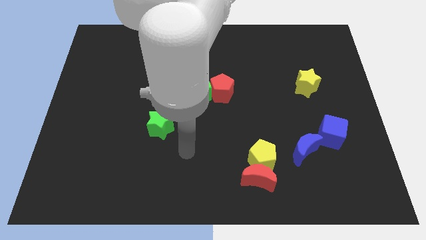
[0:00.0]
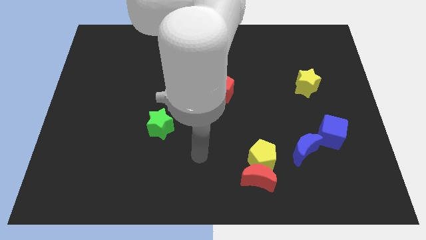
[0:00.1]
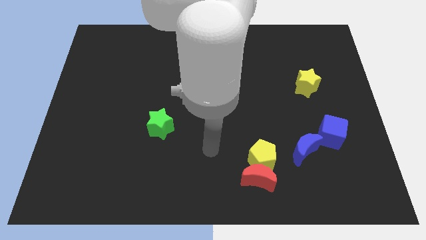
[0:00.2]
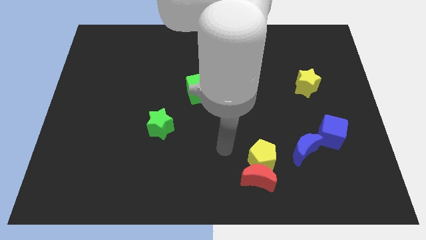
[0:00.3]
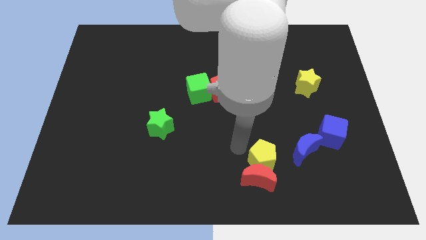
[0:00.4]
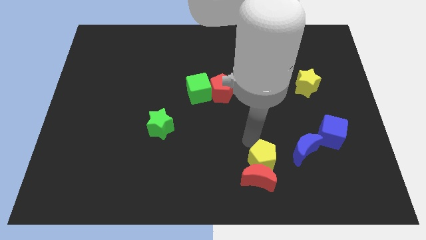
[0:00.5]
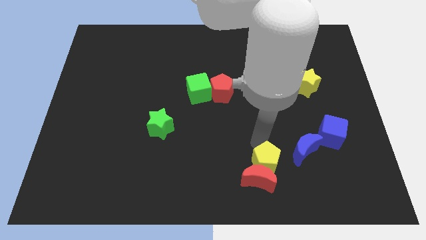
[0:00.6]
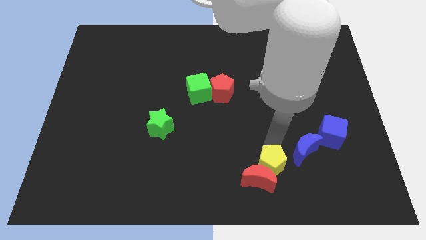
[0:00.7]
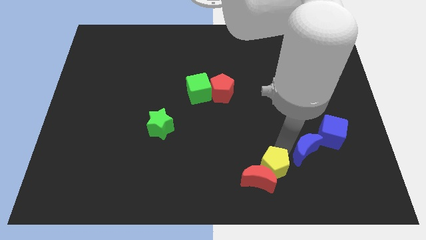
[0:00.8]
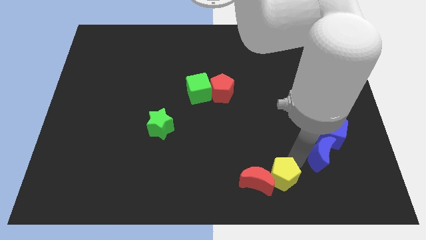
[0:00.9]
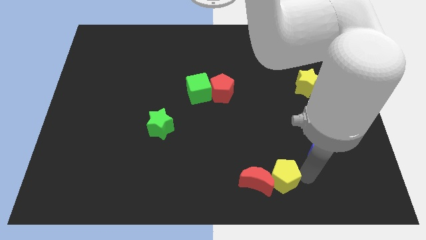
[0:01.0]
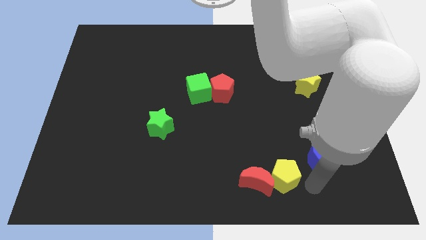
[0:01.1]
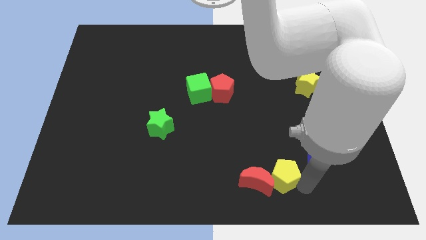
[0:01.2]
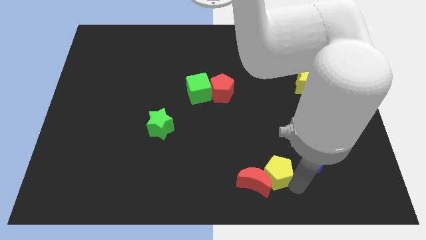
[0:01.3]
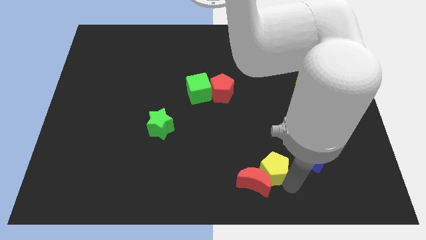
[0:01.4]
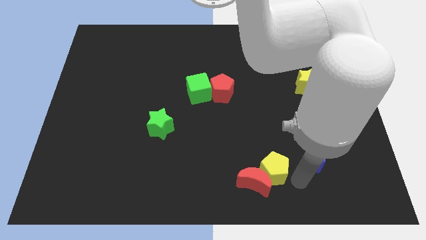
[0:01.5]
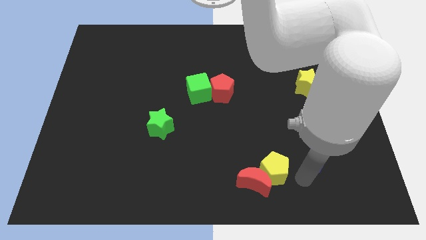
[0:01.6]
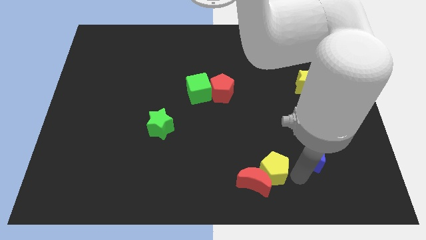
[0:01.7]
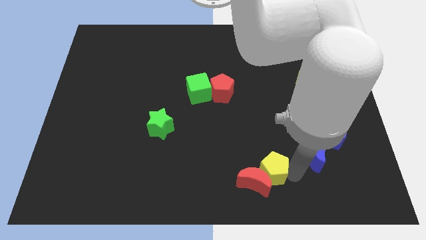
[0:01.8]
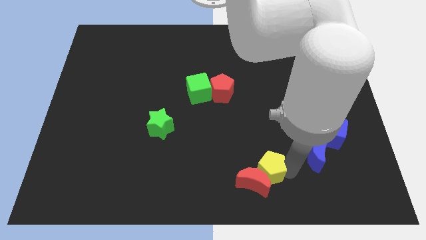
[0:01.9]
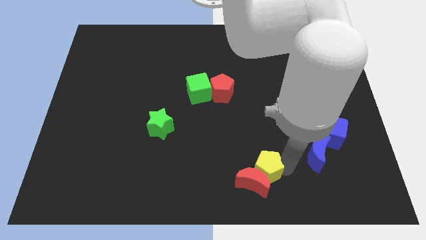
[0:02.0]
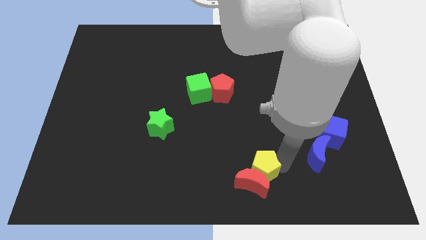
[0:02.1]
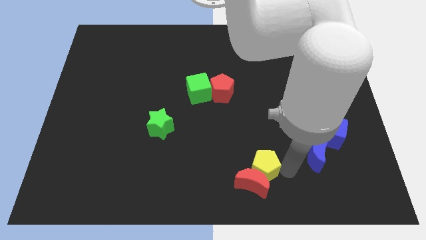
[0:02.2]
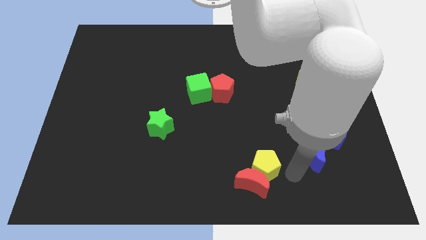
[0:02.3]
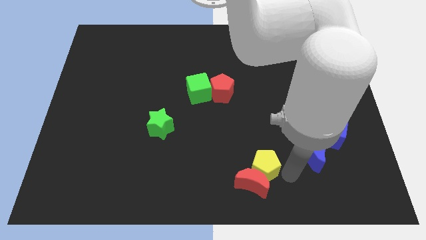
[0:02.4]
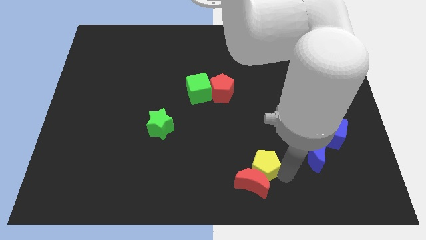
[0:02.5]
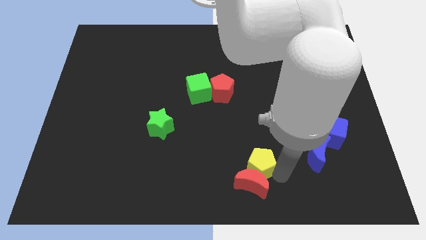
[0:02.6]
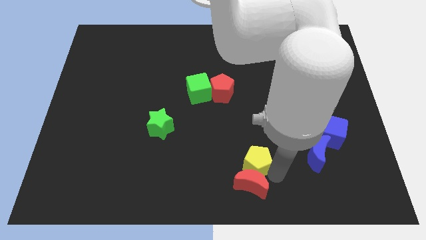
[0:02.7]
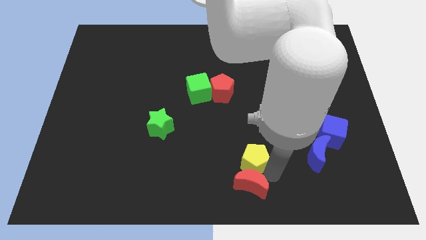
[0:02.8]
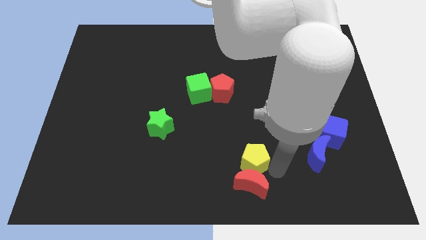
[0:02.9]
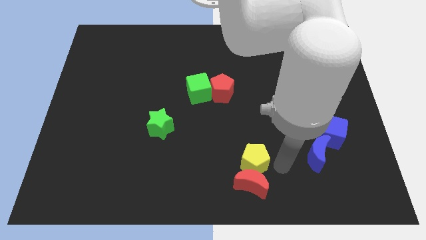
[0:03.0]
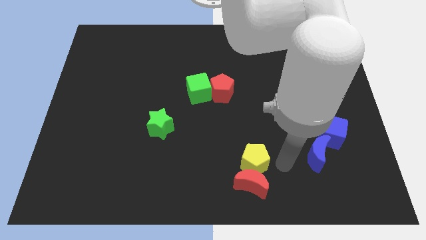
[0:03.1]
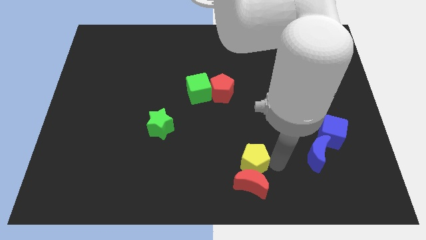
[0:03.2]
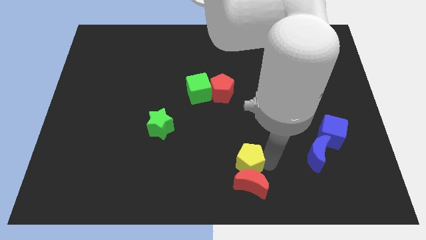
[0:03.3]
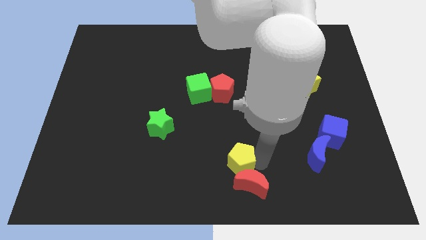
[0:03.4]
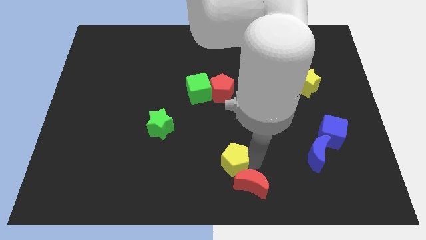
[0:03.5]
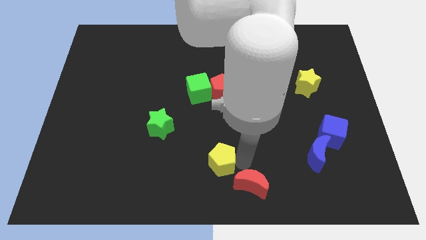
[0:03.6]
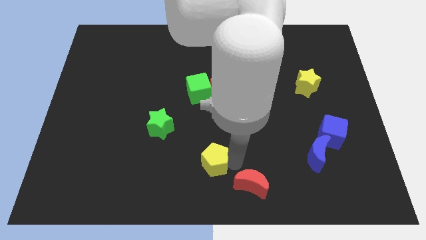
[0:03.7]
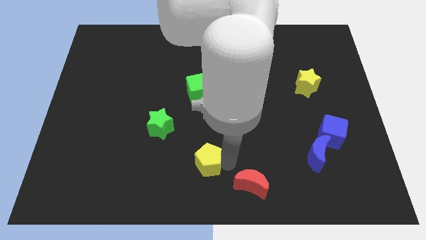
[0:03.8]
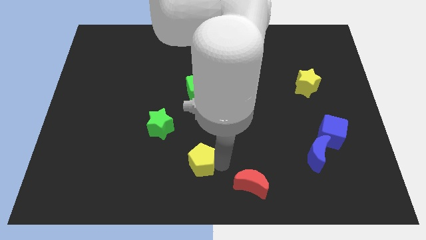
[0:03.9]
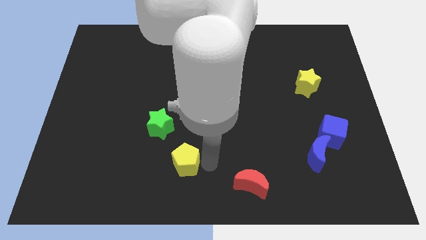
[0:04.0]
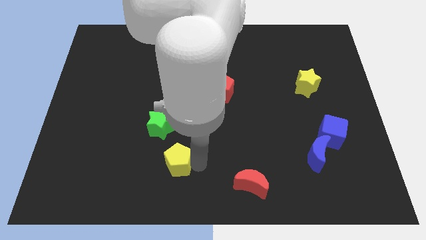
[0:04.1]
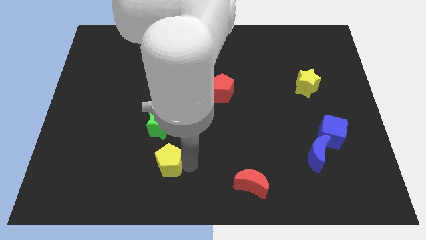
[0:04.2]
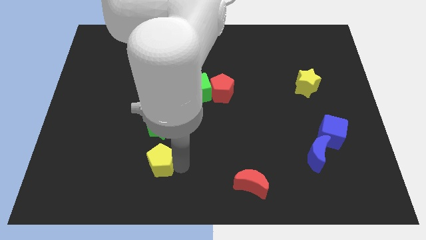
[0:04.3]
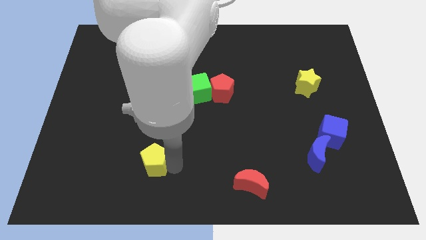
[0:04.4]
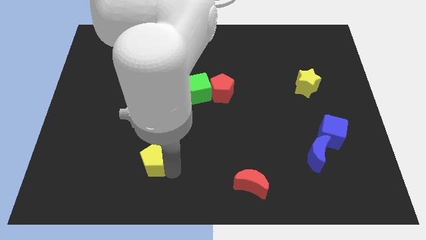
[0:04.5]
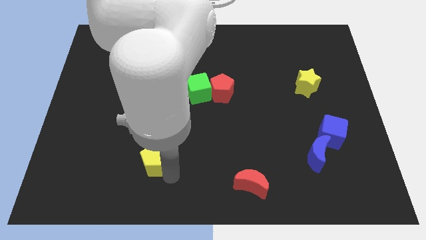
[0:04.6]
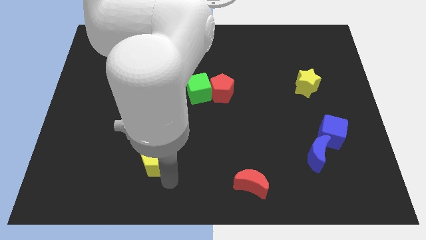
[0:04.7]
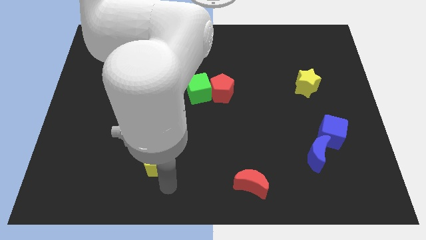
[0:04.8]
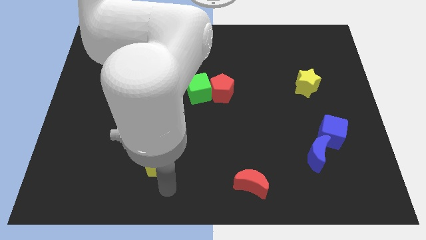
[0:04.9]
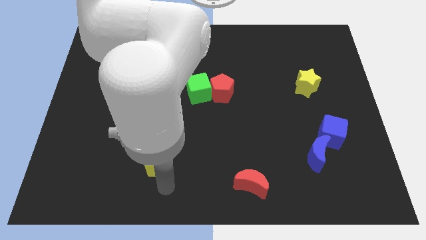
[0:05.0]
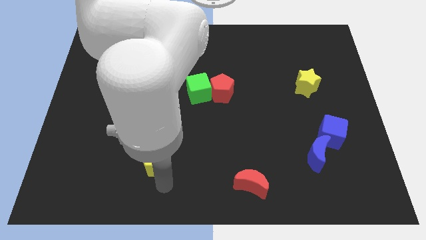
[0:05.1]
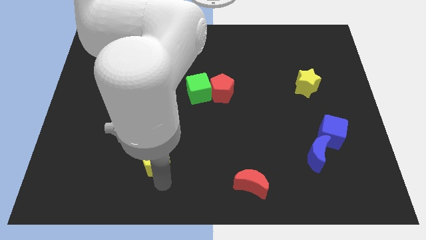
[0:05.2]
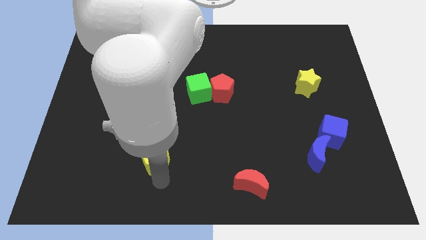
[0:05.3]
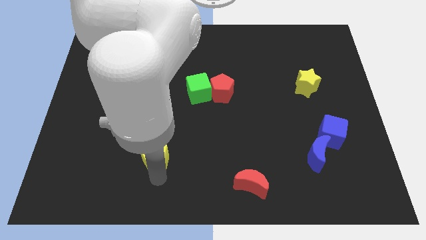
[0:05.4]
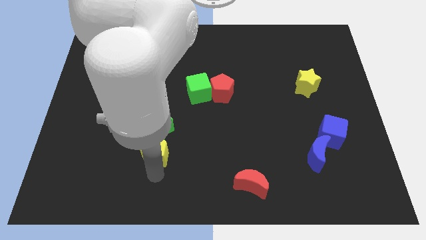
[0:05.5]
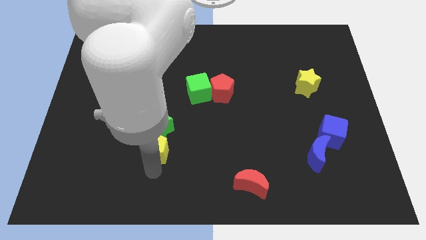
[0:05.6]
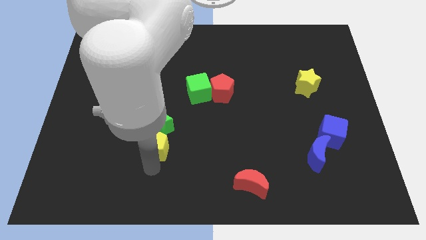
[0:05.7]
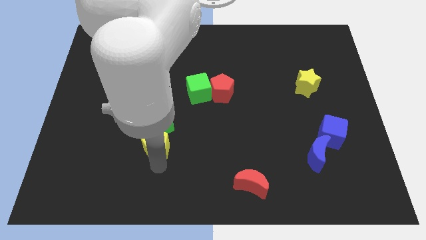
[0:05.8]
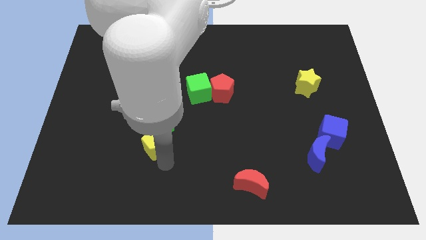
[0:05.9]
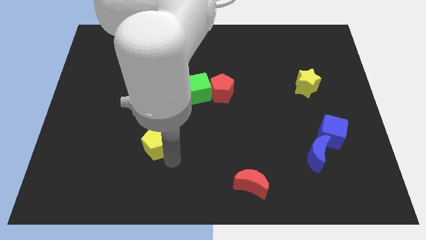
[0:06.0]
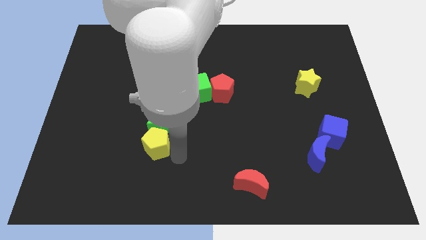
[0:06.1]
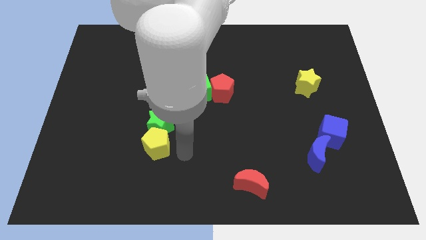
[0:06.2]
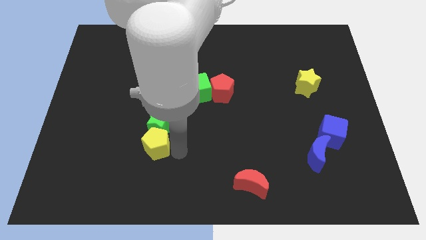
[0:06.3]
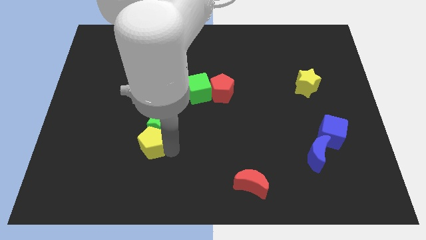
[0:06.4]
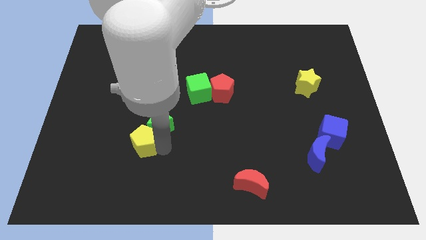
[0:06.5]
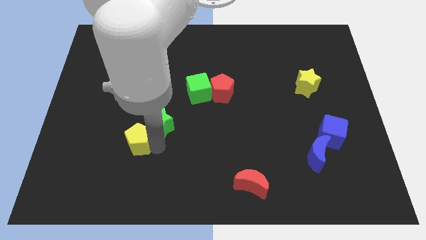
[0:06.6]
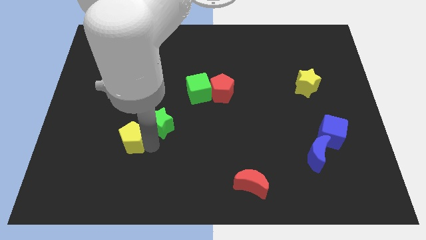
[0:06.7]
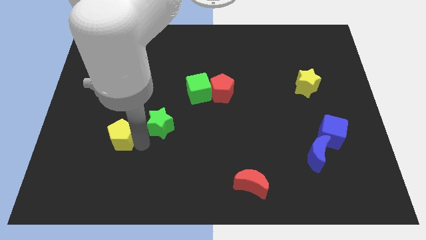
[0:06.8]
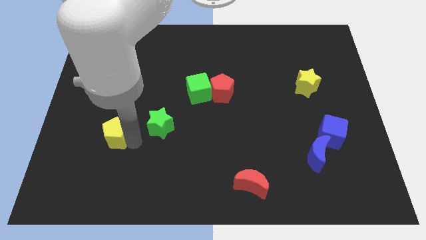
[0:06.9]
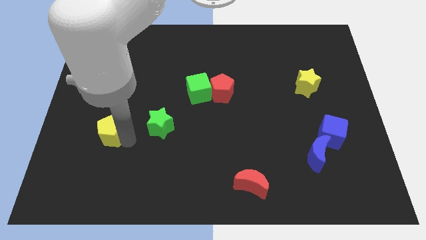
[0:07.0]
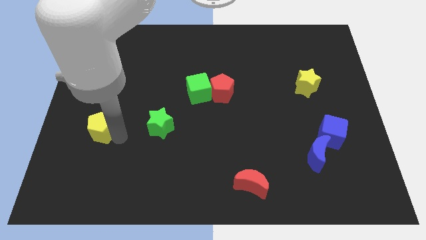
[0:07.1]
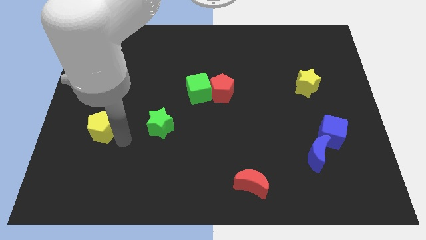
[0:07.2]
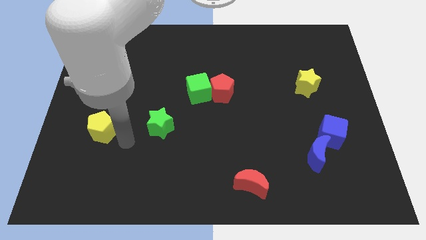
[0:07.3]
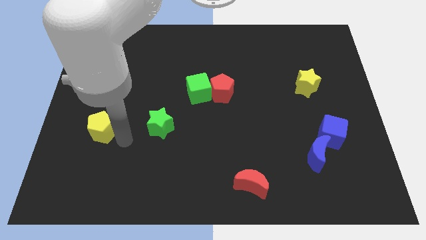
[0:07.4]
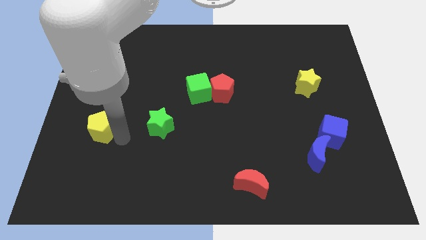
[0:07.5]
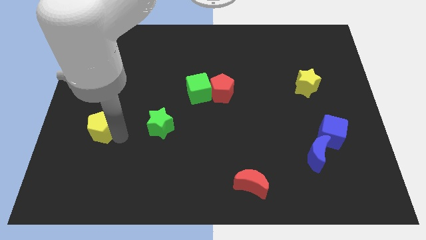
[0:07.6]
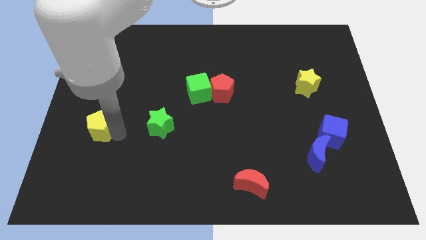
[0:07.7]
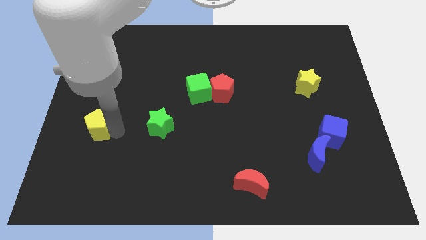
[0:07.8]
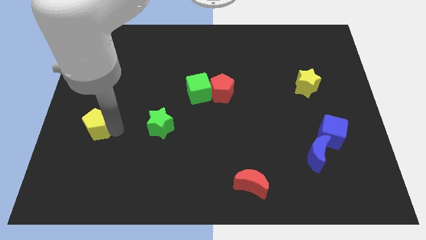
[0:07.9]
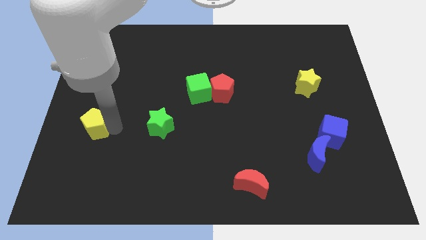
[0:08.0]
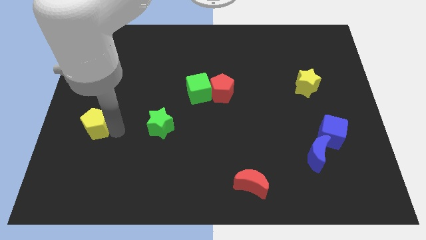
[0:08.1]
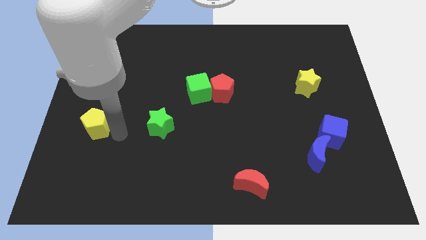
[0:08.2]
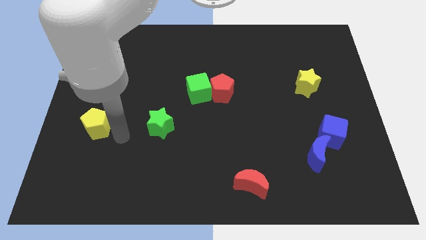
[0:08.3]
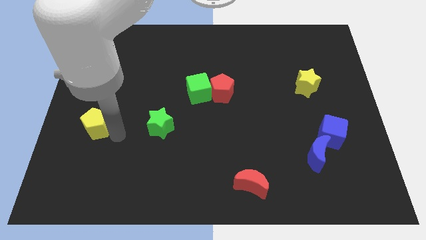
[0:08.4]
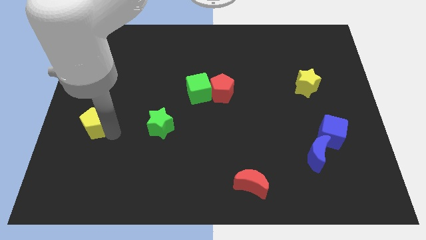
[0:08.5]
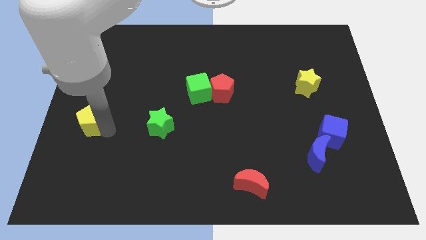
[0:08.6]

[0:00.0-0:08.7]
slide the yellow pentagon to the center left
